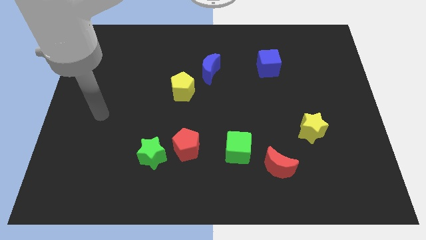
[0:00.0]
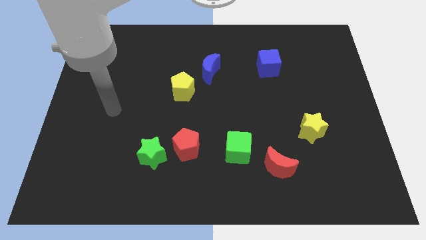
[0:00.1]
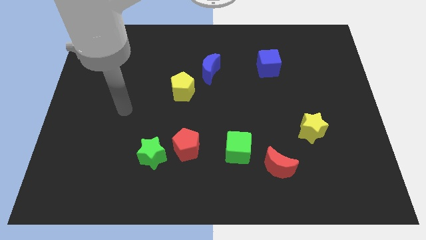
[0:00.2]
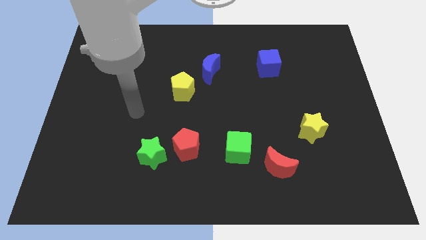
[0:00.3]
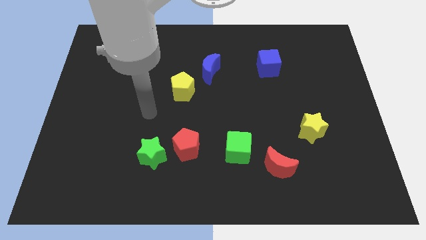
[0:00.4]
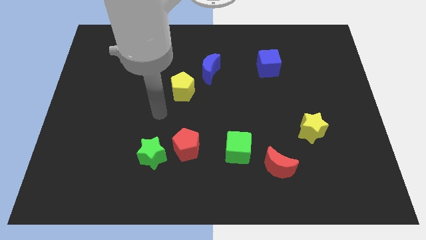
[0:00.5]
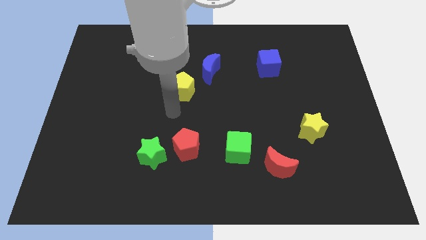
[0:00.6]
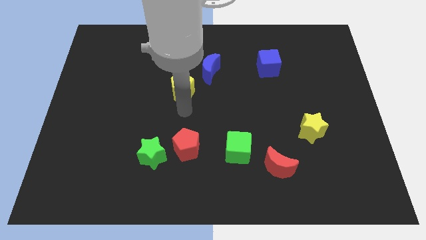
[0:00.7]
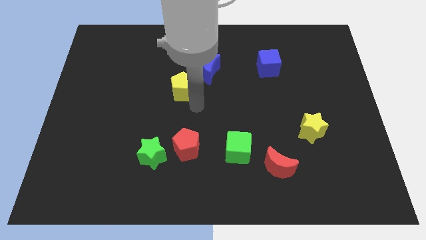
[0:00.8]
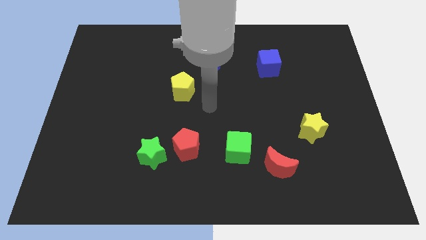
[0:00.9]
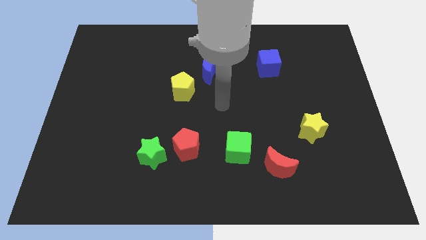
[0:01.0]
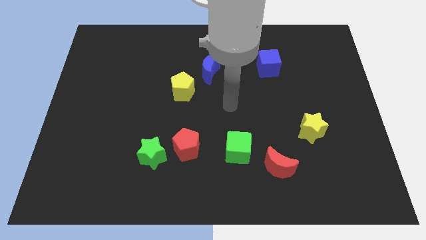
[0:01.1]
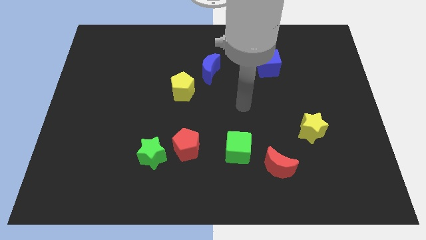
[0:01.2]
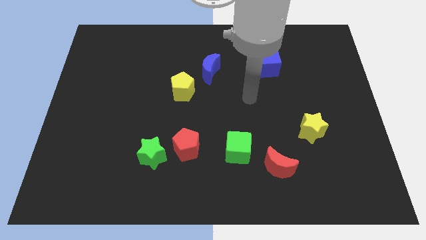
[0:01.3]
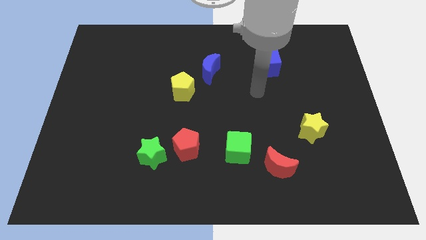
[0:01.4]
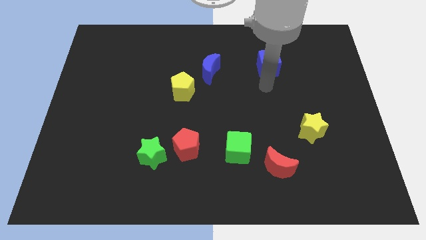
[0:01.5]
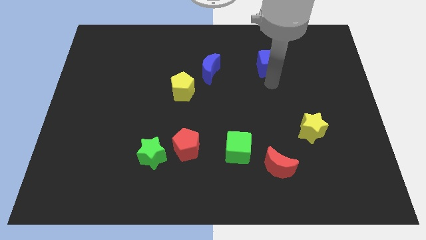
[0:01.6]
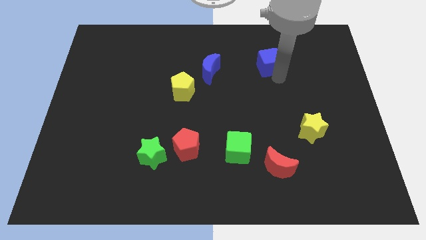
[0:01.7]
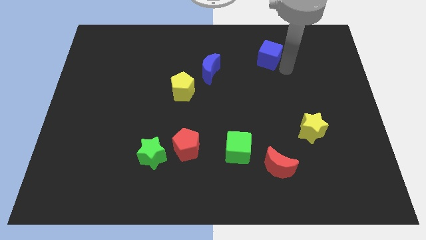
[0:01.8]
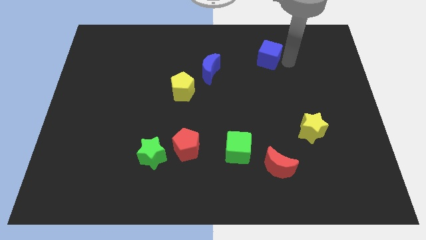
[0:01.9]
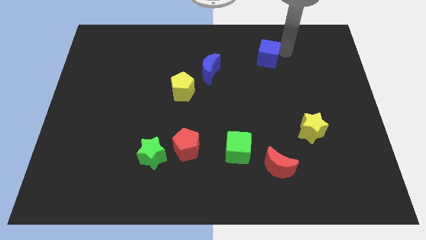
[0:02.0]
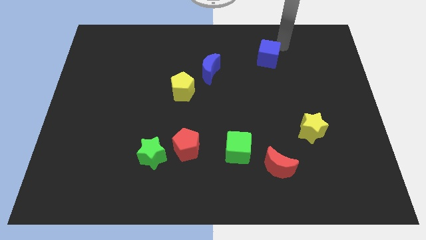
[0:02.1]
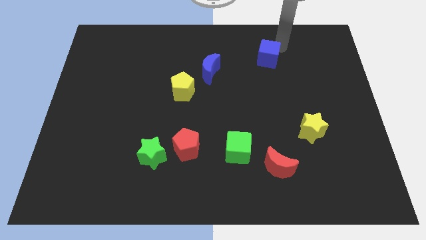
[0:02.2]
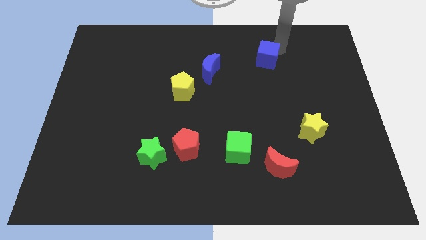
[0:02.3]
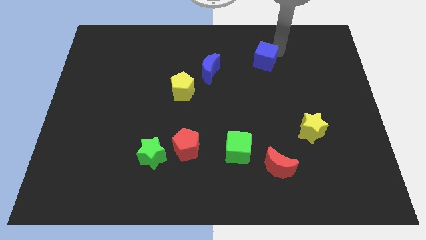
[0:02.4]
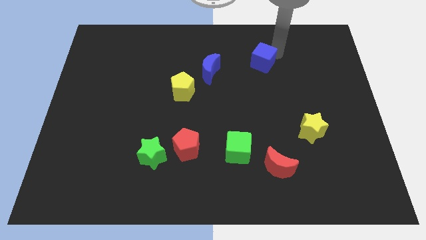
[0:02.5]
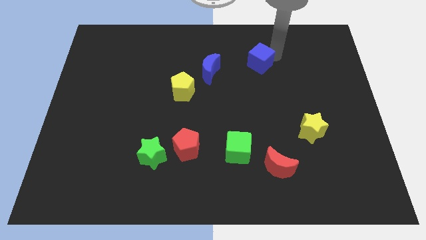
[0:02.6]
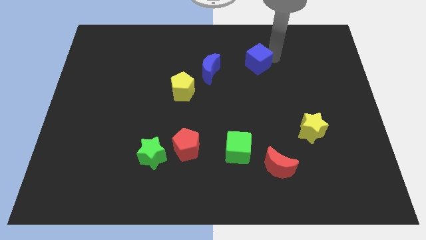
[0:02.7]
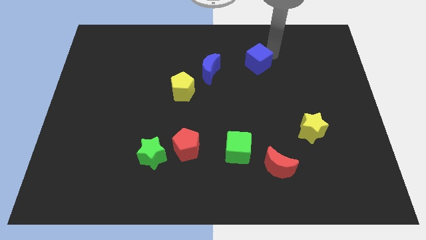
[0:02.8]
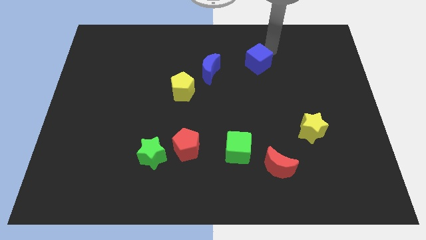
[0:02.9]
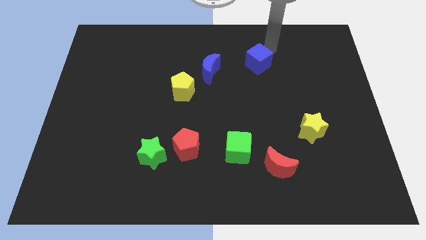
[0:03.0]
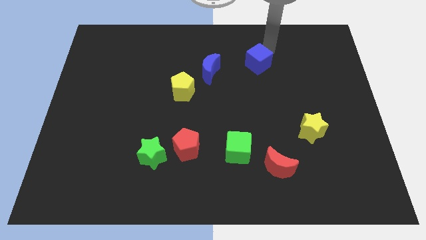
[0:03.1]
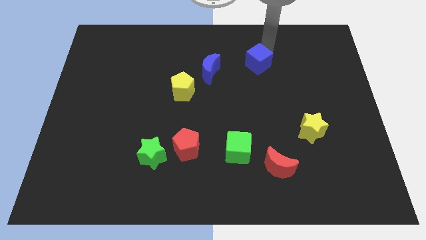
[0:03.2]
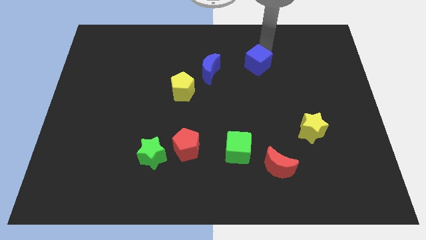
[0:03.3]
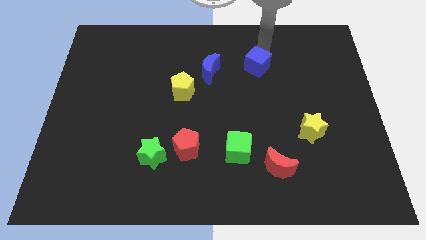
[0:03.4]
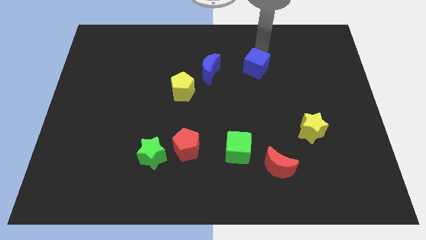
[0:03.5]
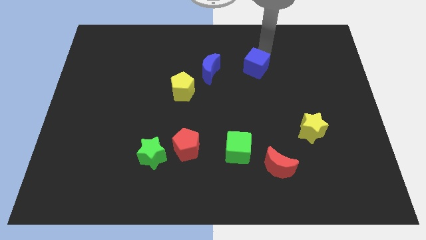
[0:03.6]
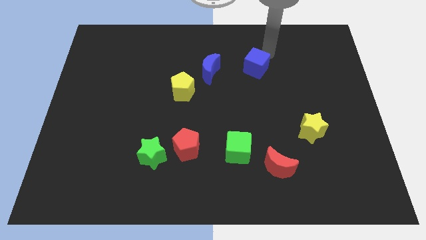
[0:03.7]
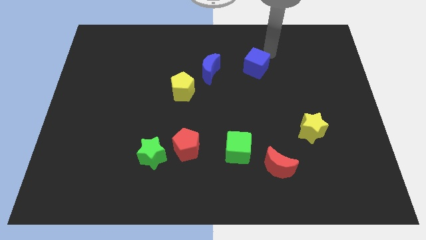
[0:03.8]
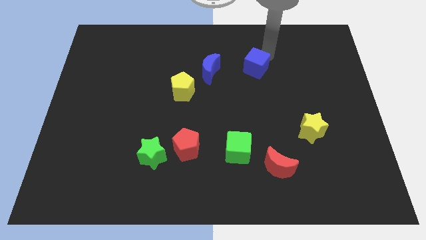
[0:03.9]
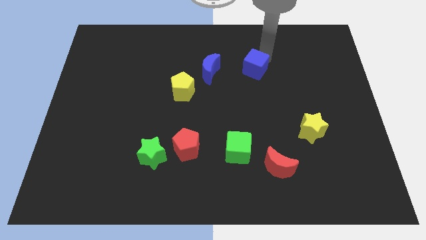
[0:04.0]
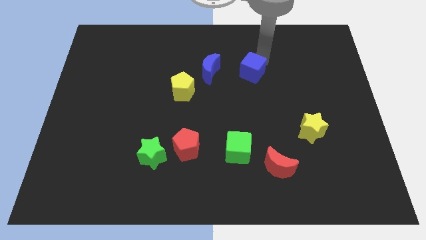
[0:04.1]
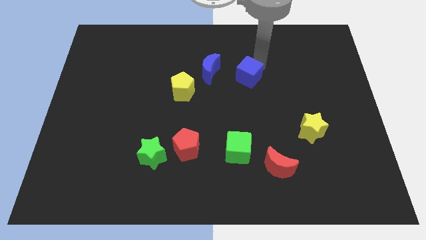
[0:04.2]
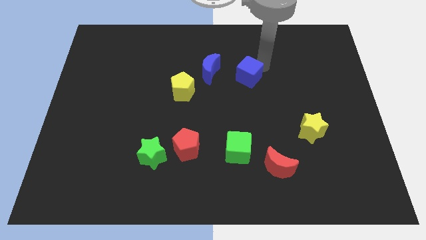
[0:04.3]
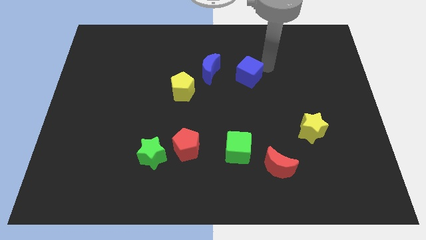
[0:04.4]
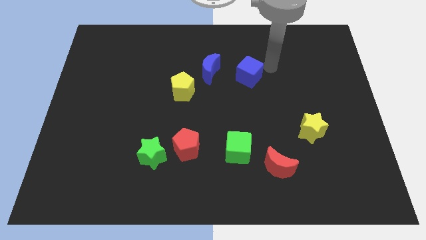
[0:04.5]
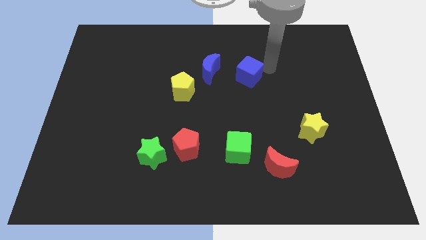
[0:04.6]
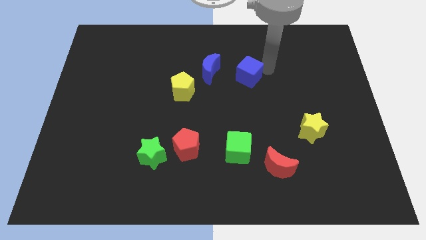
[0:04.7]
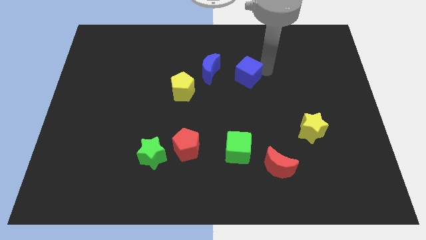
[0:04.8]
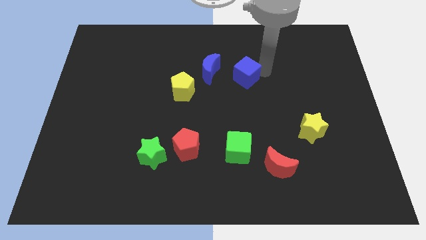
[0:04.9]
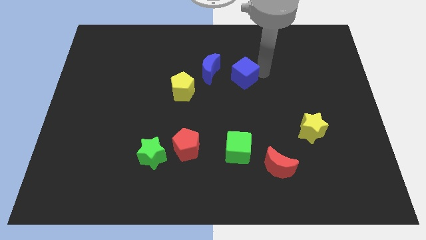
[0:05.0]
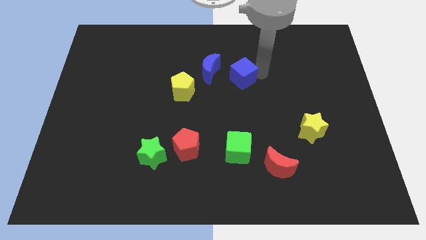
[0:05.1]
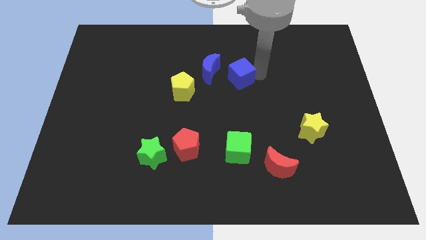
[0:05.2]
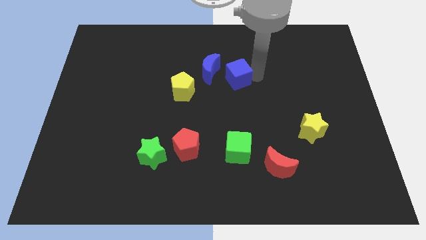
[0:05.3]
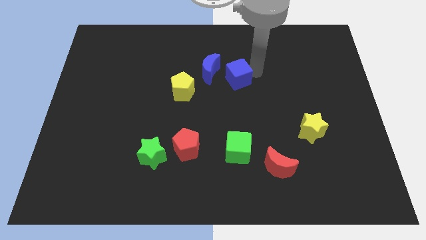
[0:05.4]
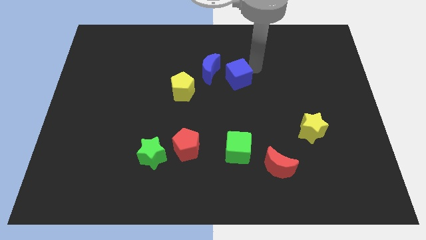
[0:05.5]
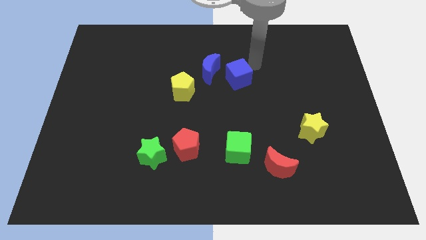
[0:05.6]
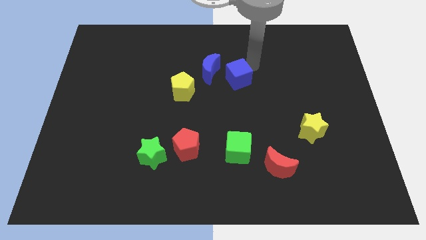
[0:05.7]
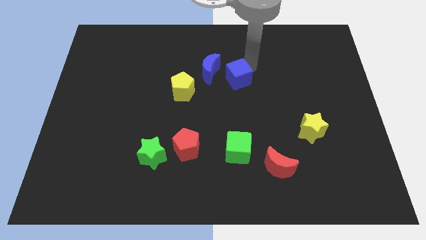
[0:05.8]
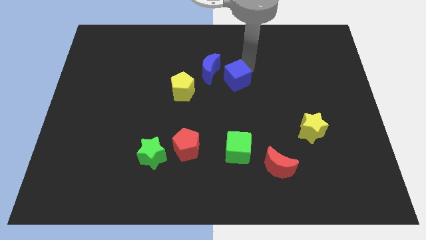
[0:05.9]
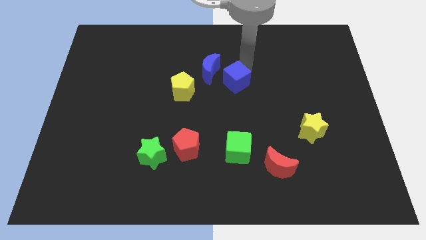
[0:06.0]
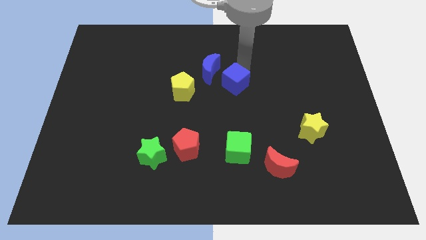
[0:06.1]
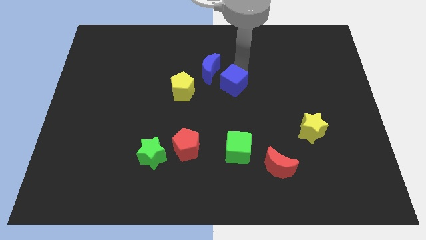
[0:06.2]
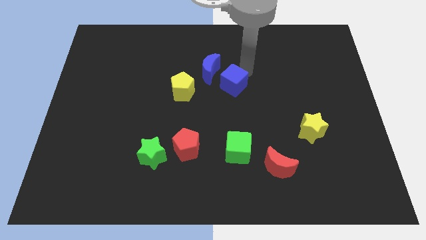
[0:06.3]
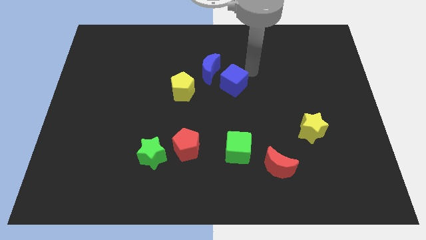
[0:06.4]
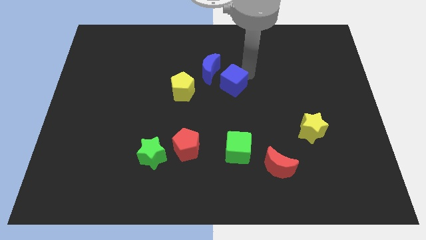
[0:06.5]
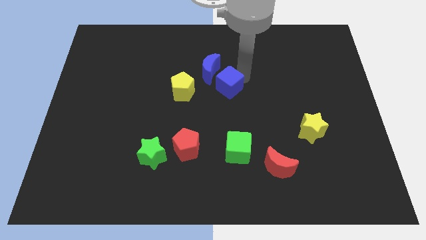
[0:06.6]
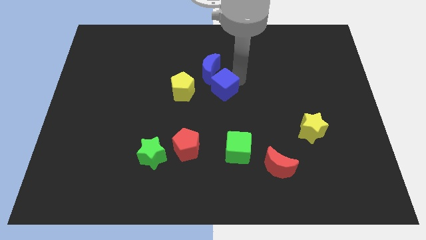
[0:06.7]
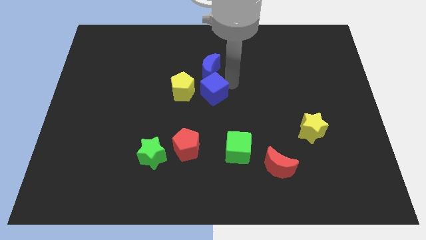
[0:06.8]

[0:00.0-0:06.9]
slide the blue cube diagonally down and to the right of the yellow pentagon
